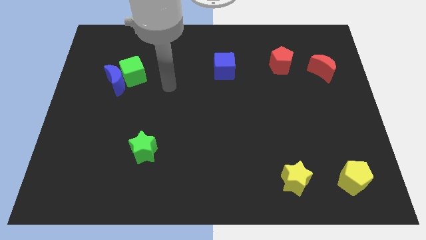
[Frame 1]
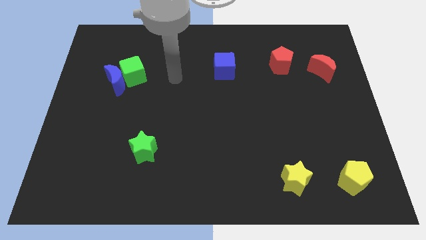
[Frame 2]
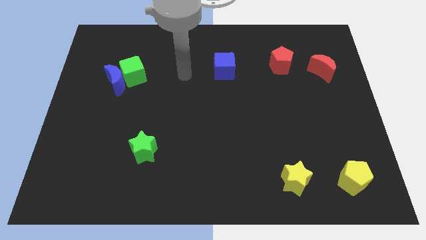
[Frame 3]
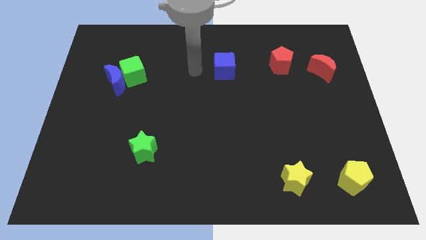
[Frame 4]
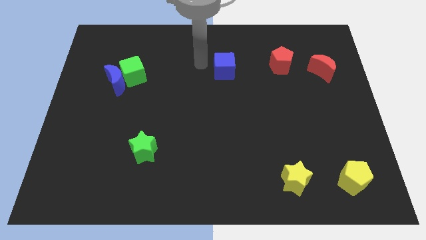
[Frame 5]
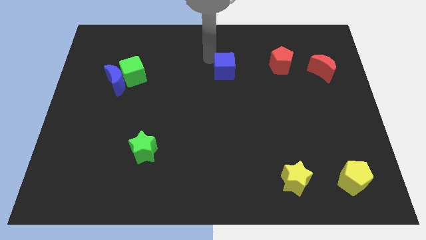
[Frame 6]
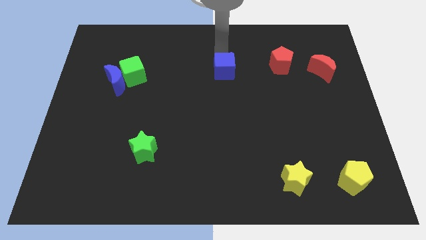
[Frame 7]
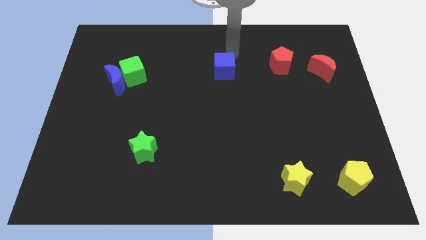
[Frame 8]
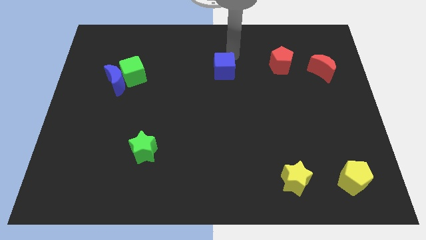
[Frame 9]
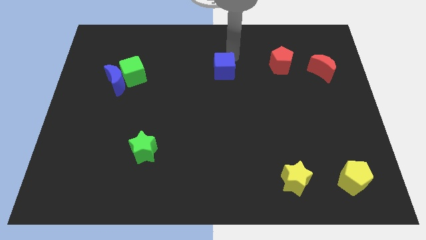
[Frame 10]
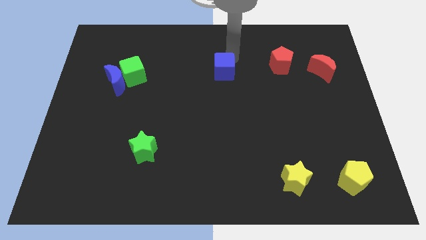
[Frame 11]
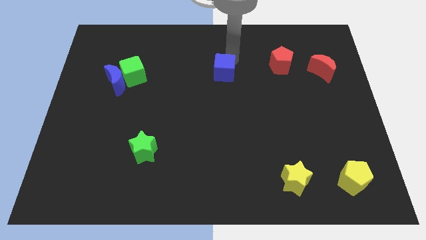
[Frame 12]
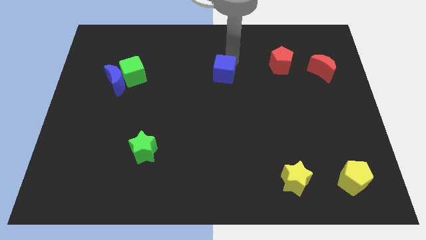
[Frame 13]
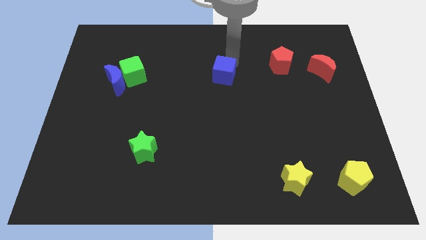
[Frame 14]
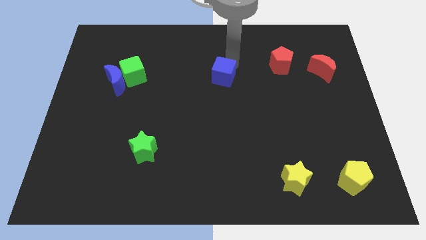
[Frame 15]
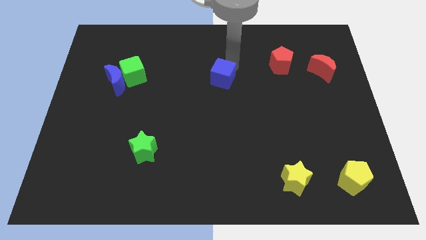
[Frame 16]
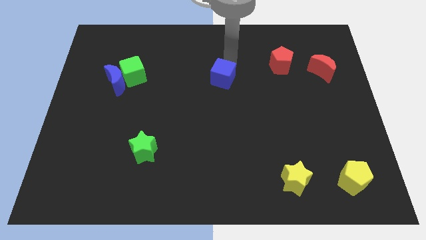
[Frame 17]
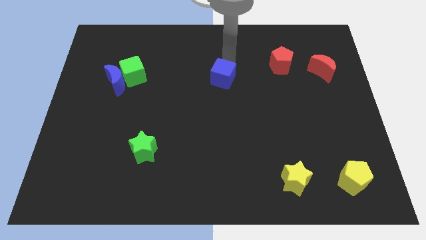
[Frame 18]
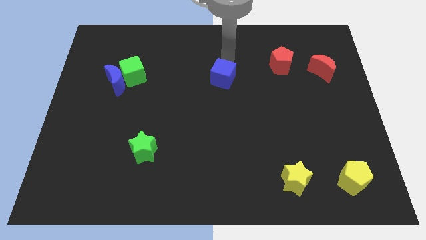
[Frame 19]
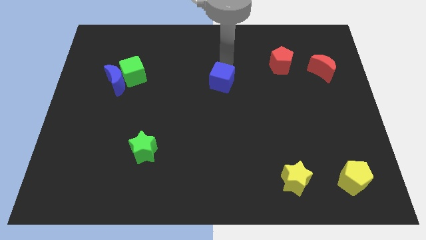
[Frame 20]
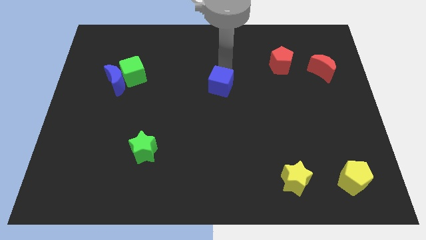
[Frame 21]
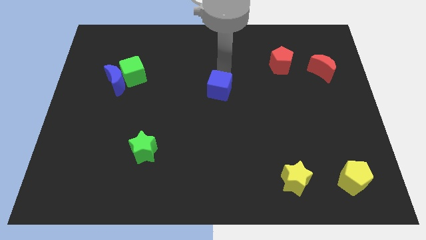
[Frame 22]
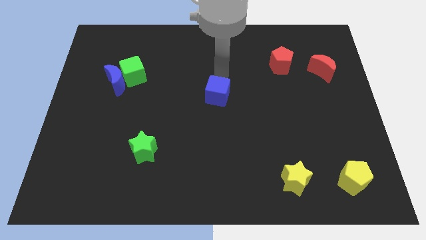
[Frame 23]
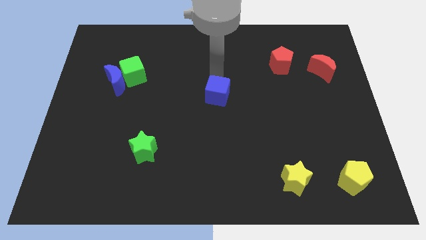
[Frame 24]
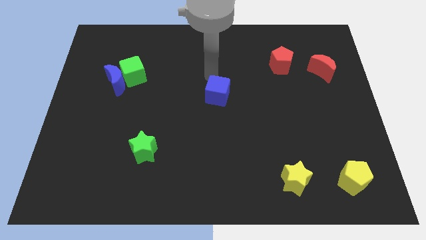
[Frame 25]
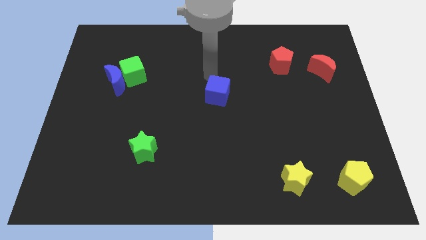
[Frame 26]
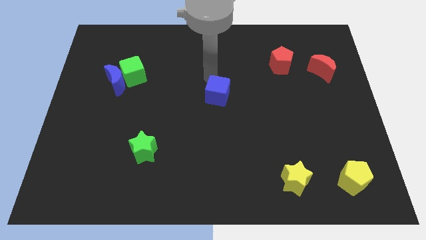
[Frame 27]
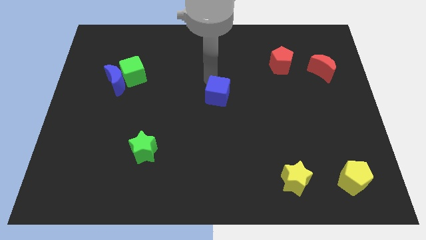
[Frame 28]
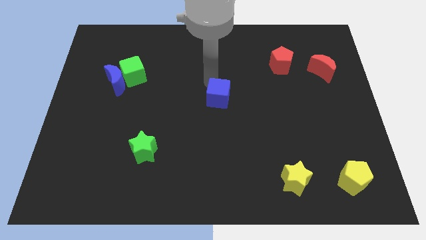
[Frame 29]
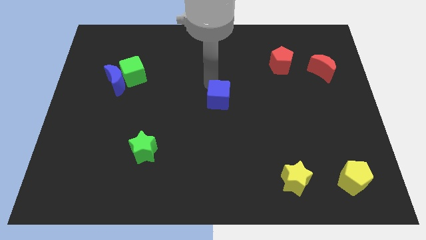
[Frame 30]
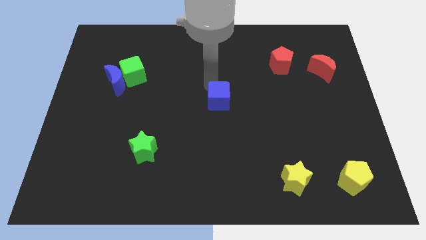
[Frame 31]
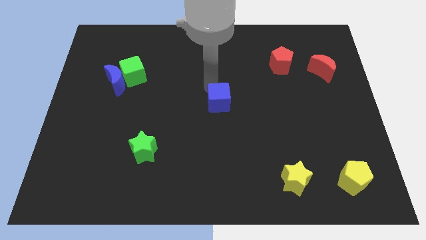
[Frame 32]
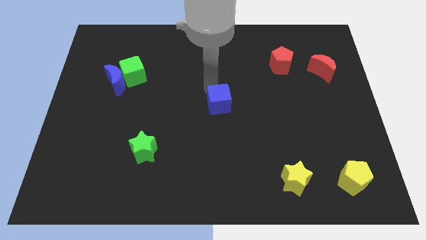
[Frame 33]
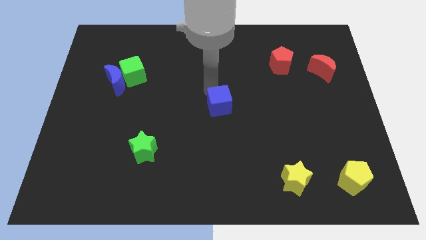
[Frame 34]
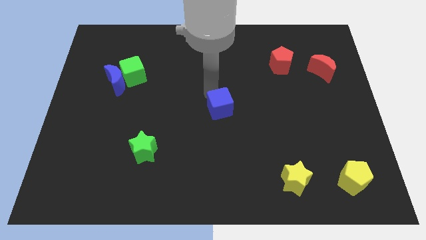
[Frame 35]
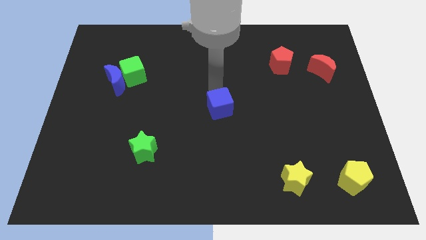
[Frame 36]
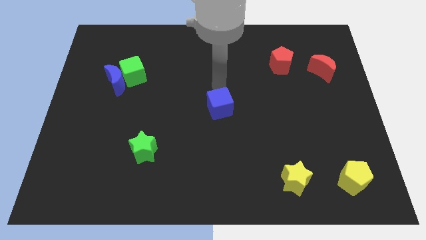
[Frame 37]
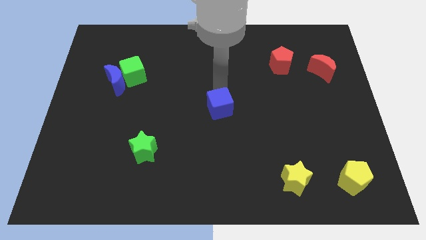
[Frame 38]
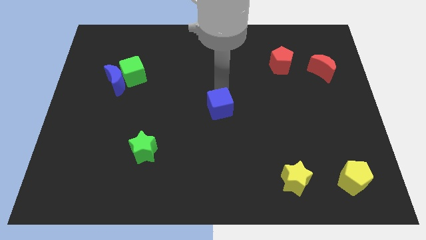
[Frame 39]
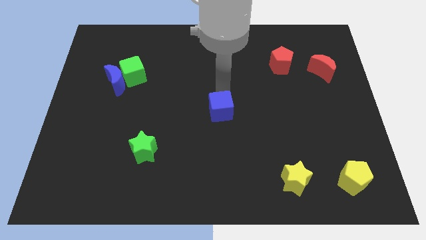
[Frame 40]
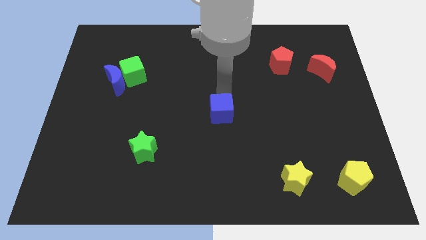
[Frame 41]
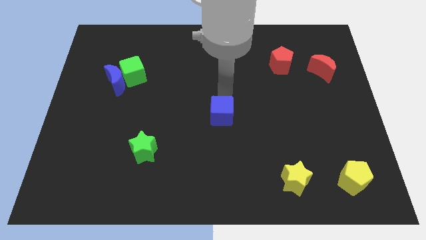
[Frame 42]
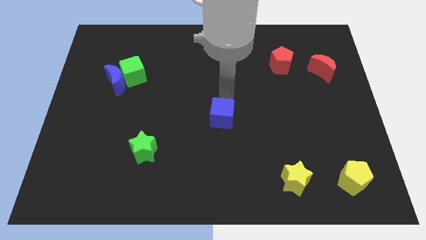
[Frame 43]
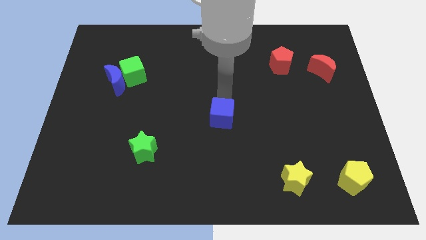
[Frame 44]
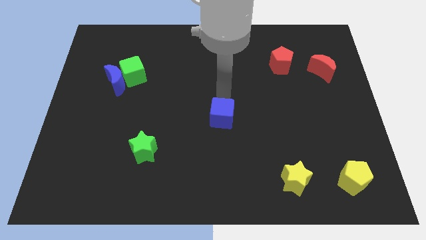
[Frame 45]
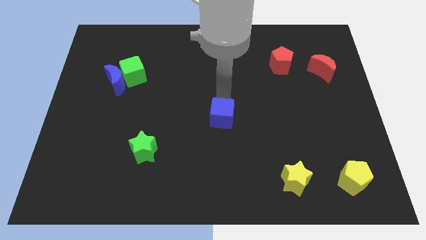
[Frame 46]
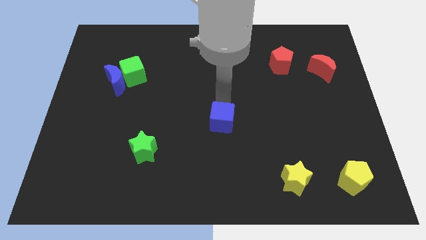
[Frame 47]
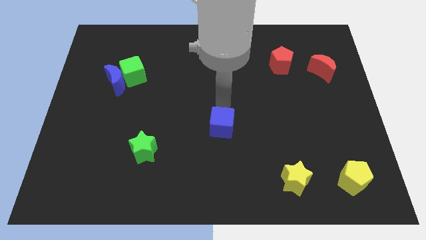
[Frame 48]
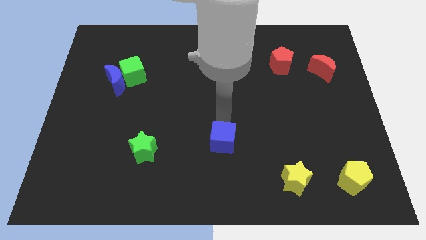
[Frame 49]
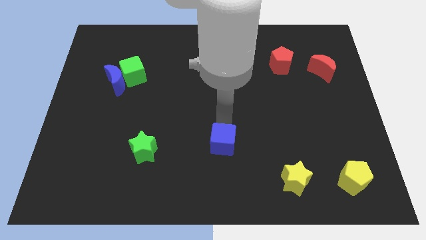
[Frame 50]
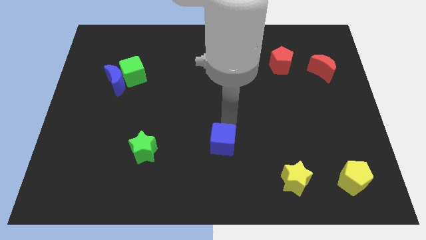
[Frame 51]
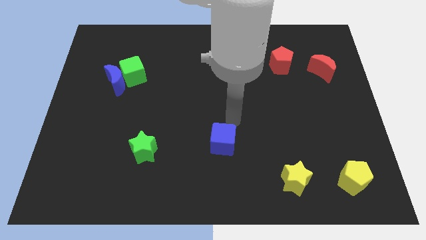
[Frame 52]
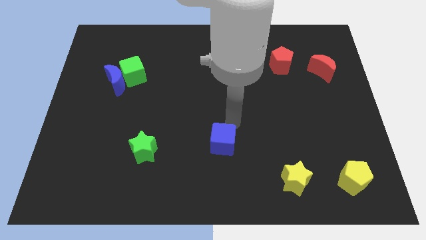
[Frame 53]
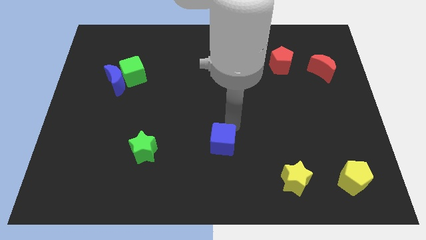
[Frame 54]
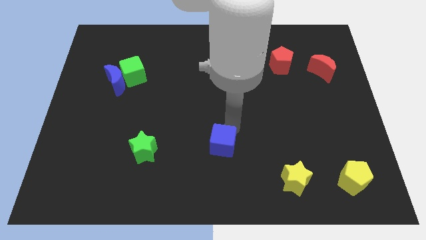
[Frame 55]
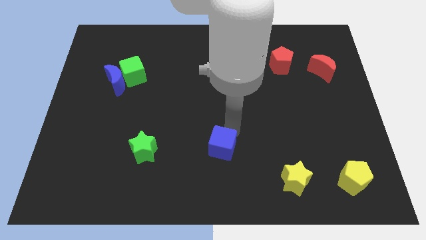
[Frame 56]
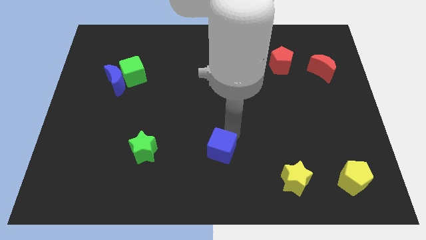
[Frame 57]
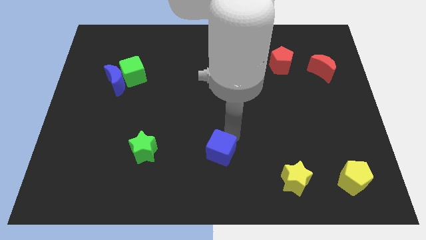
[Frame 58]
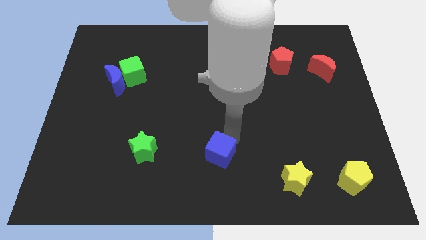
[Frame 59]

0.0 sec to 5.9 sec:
push the blue cube to the bottom side
